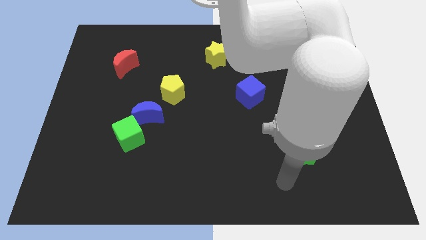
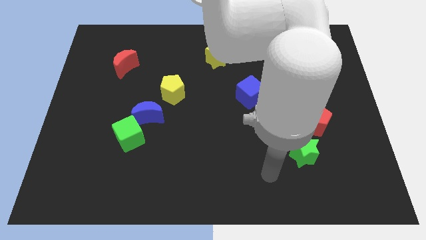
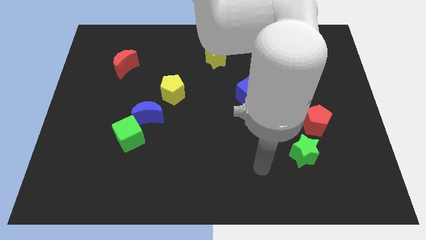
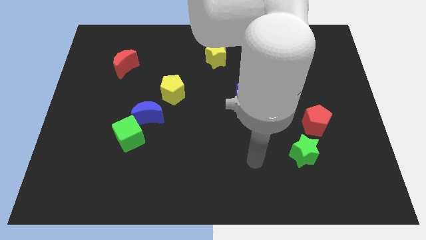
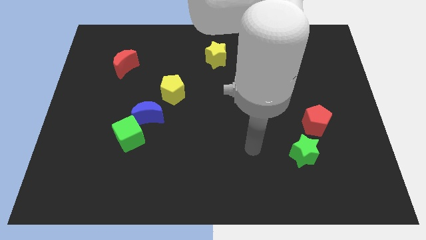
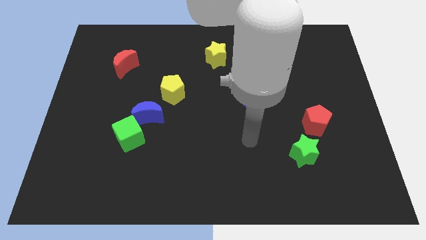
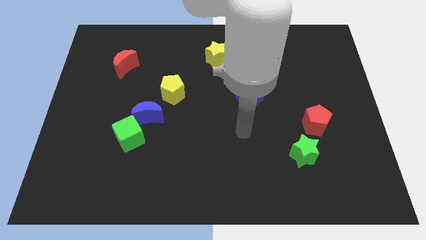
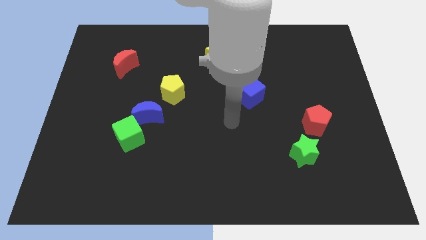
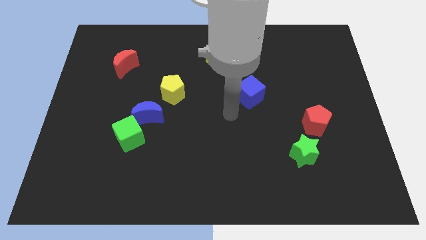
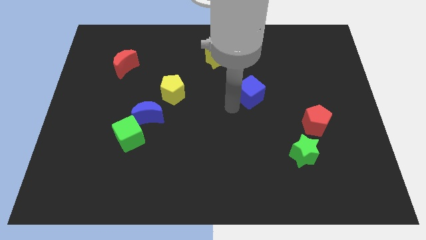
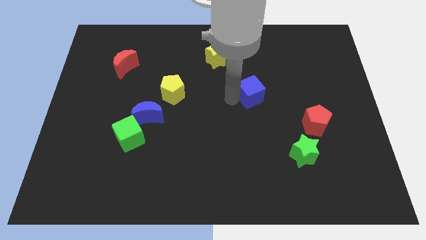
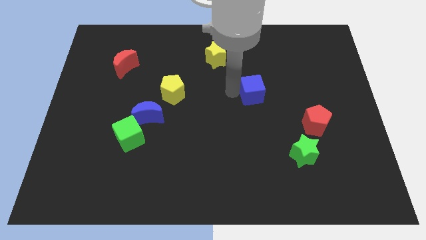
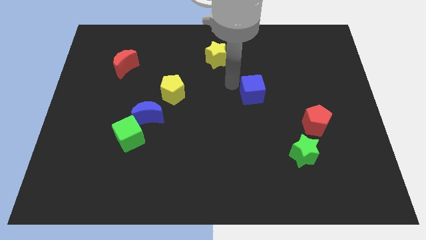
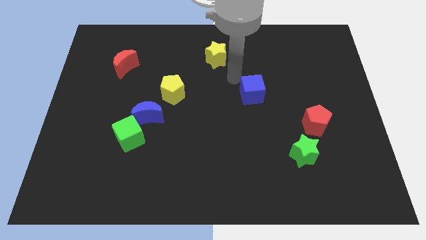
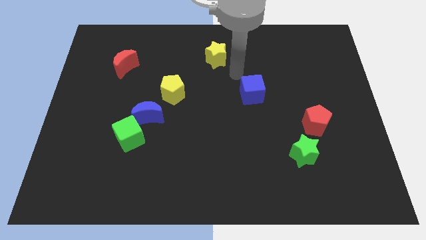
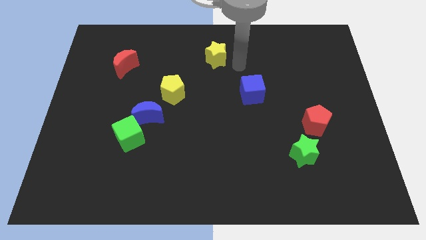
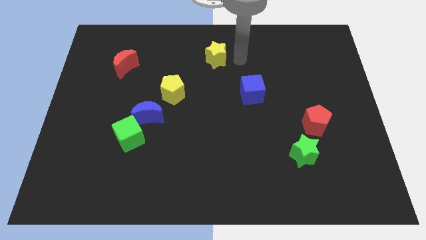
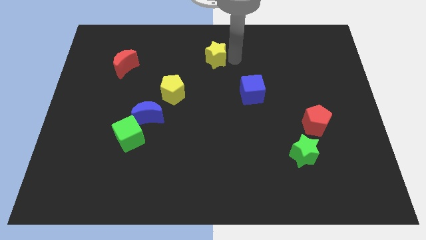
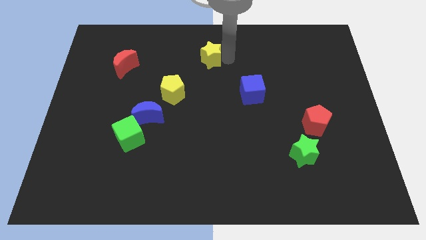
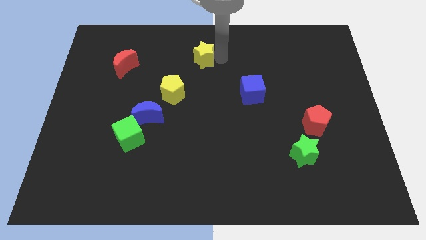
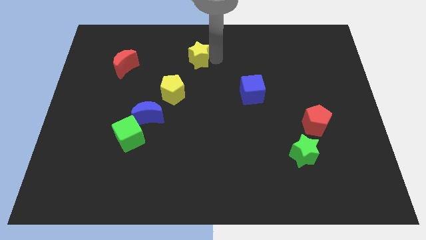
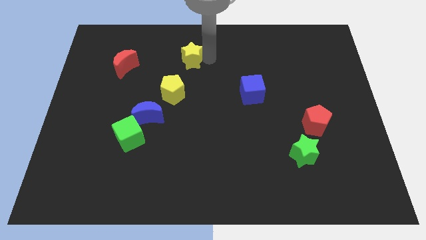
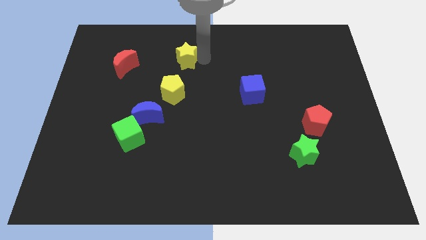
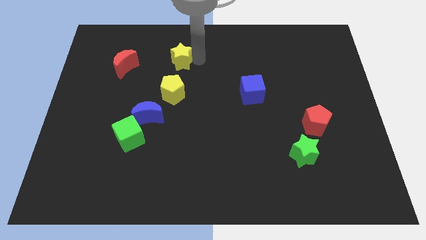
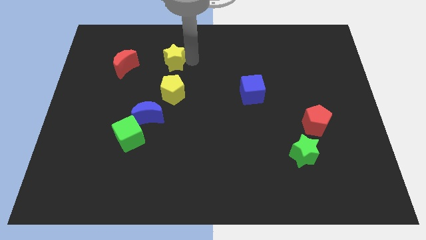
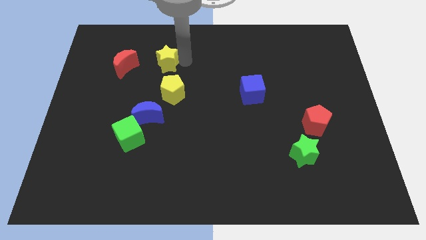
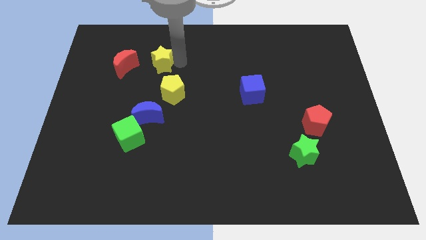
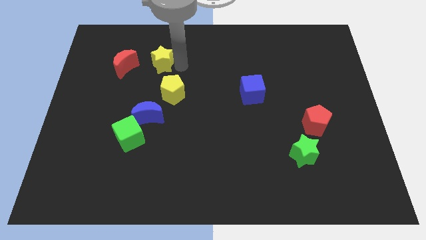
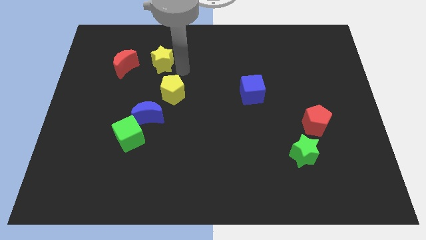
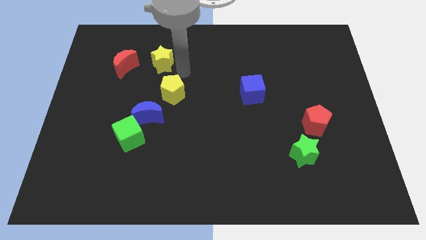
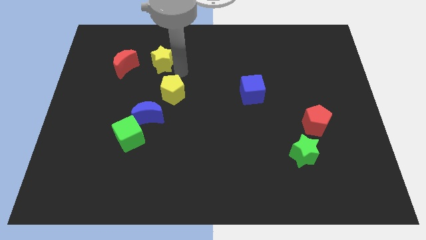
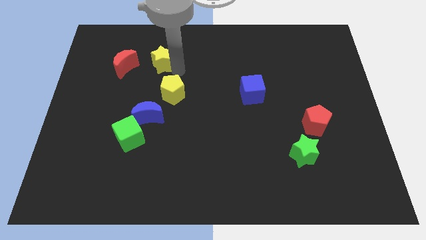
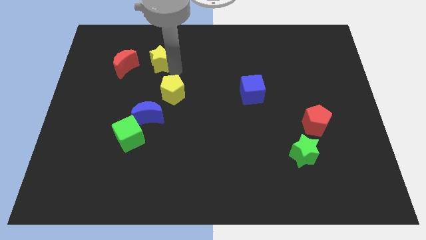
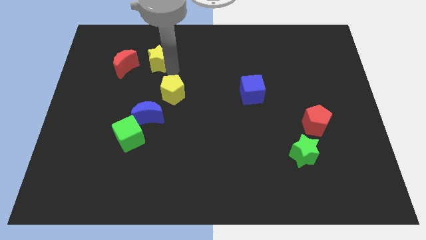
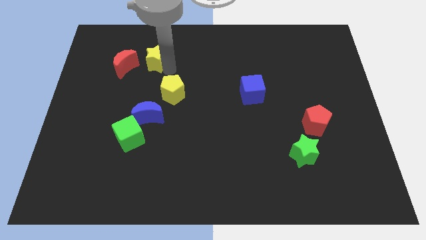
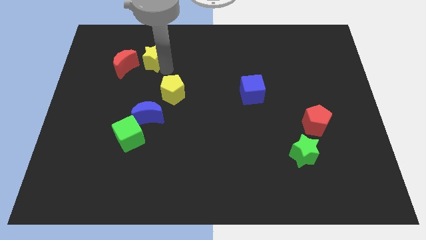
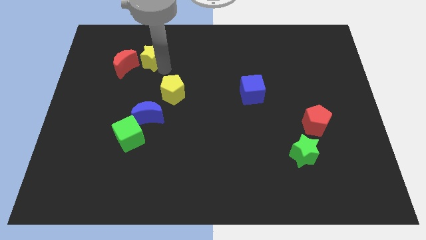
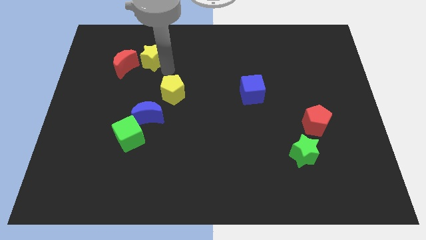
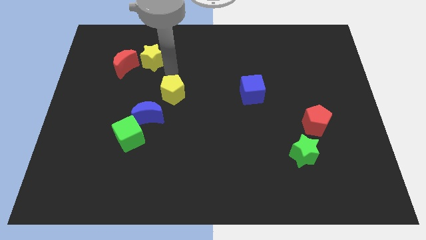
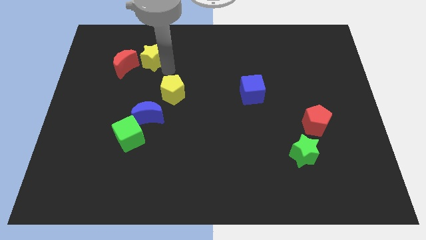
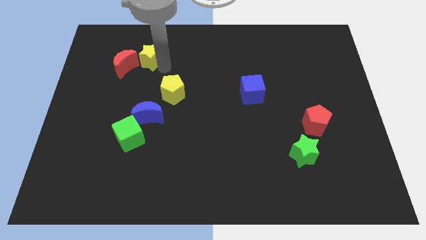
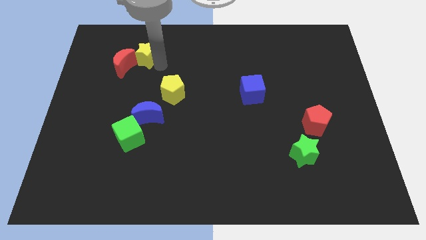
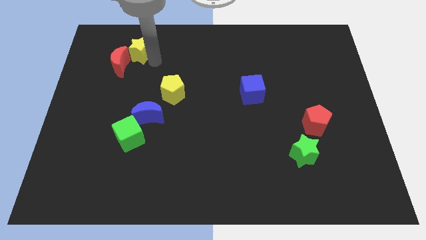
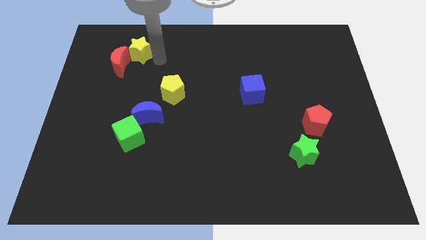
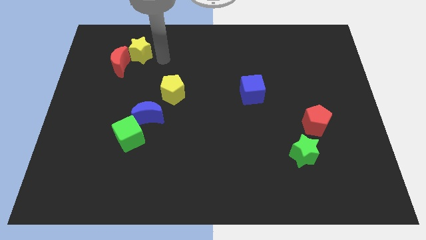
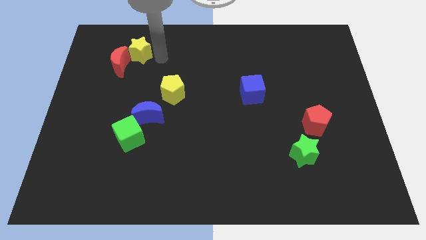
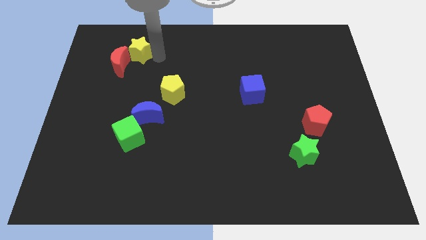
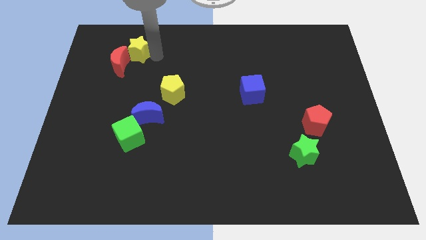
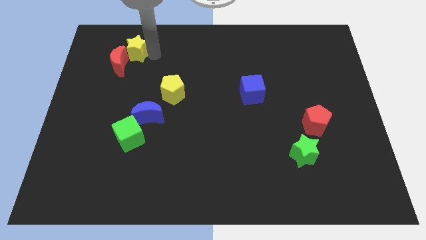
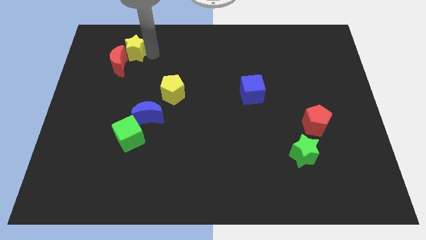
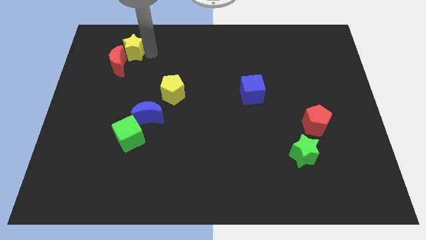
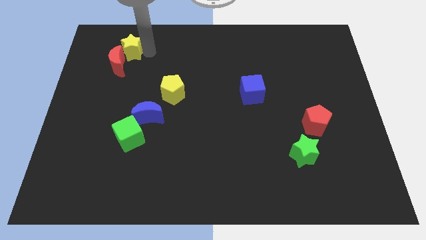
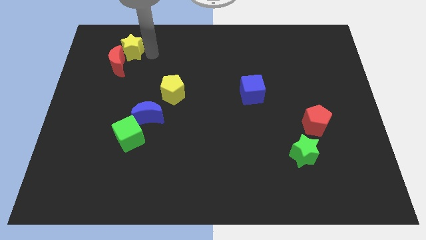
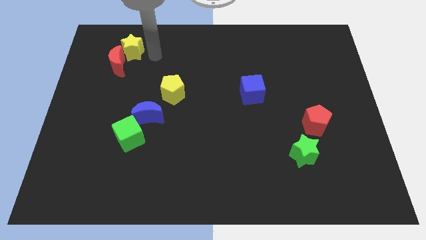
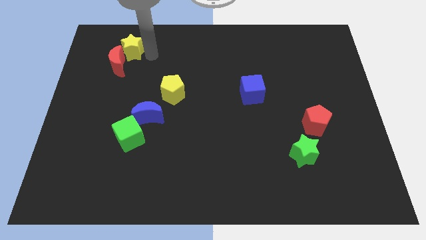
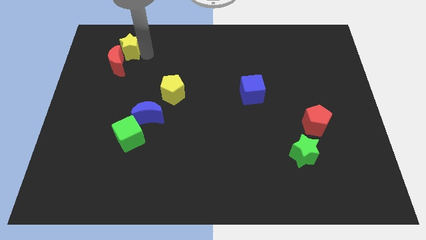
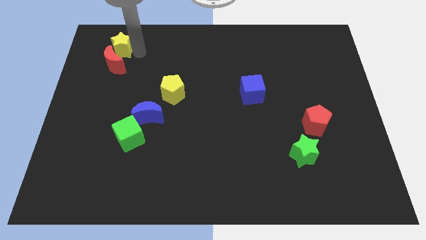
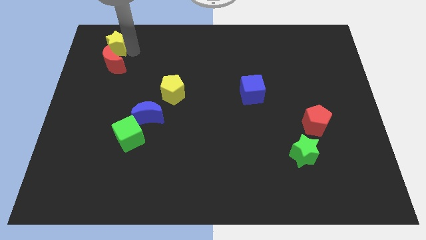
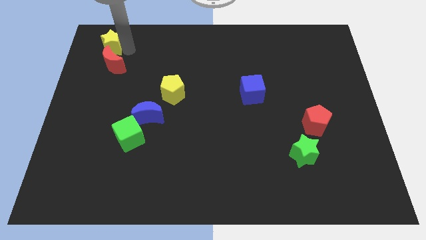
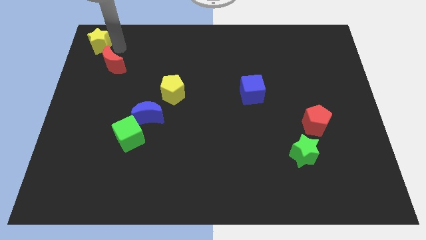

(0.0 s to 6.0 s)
move the yellow star to the top left corner
